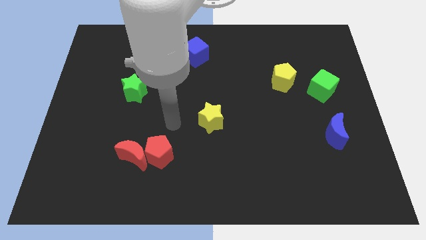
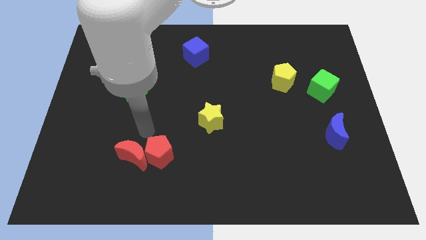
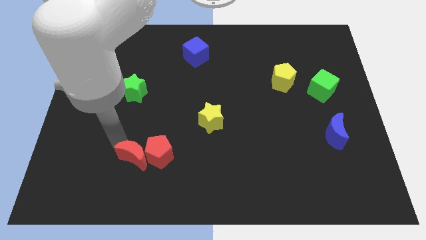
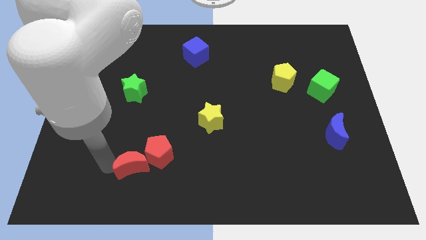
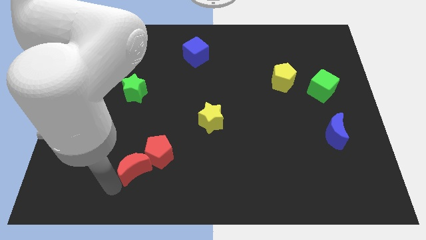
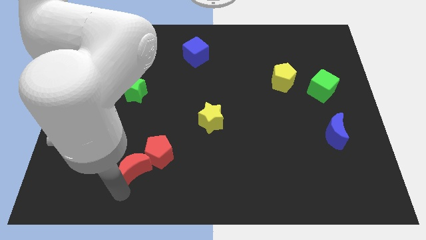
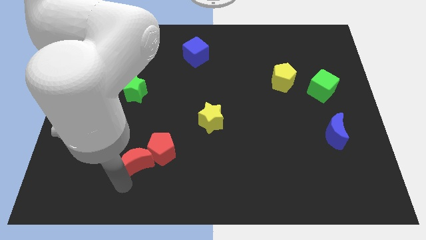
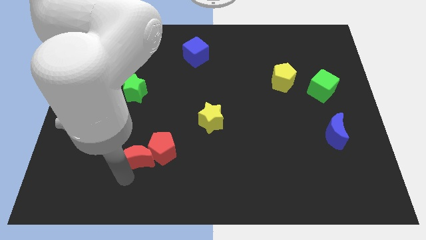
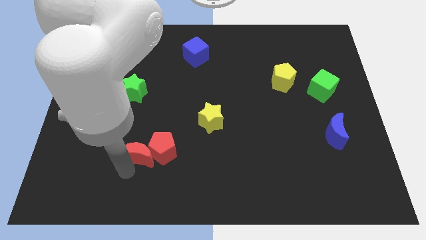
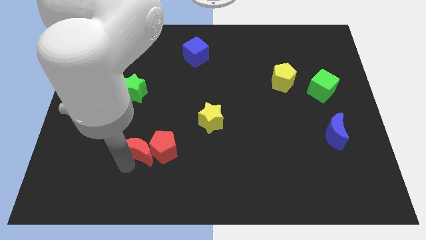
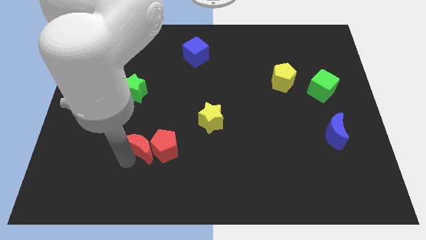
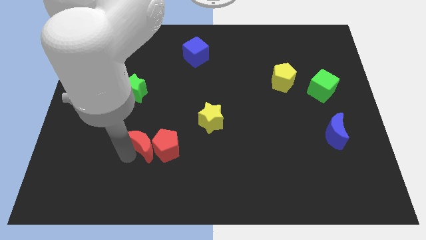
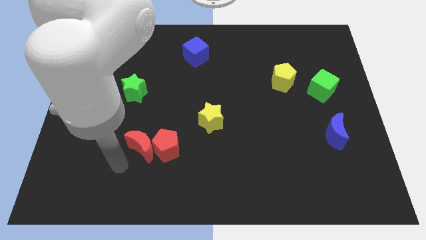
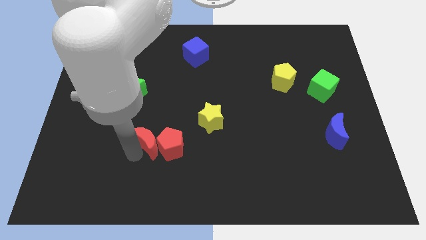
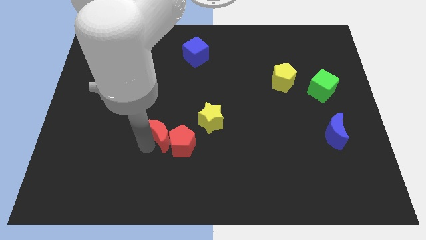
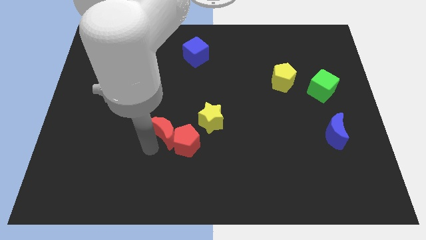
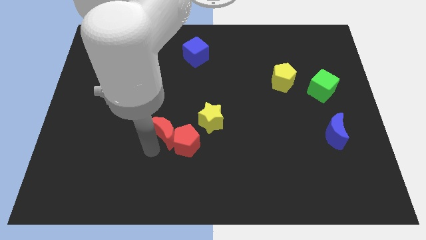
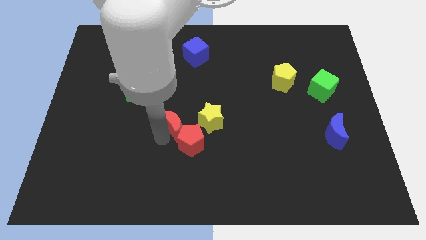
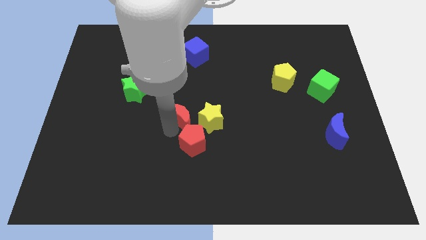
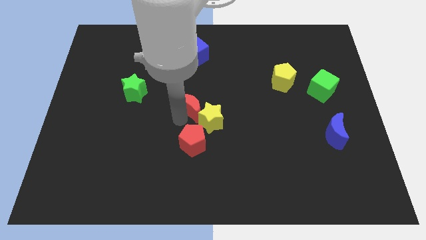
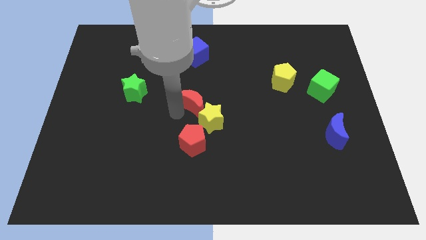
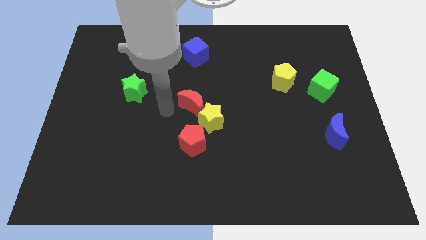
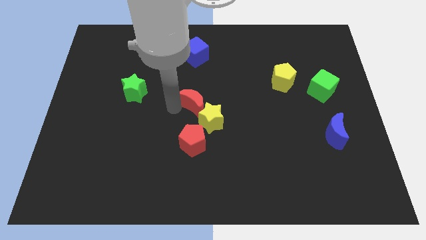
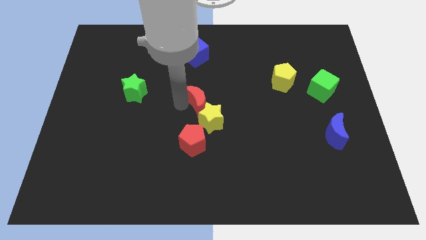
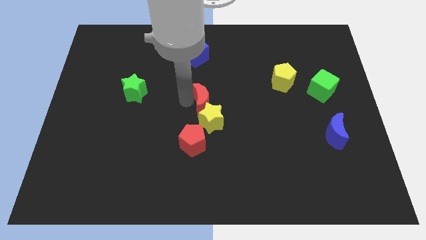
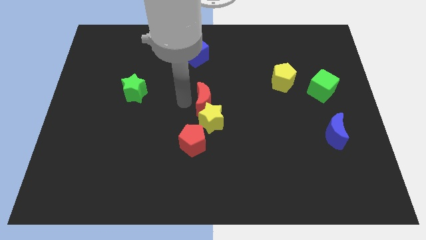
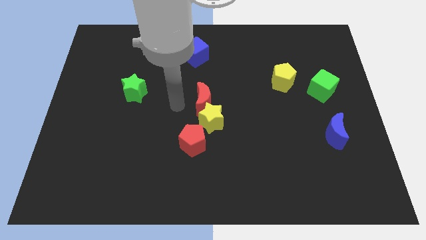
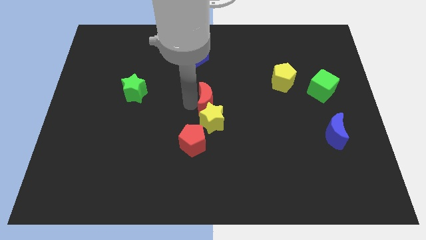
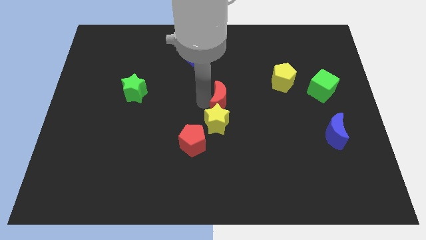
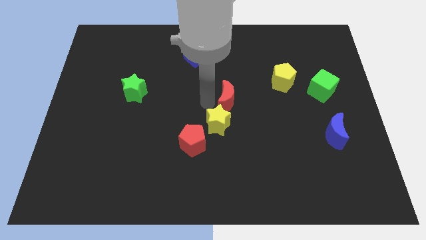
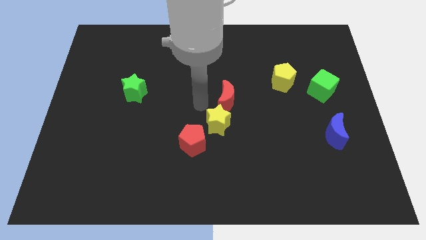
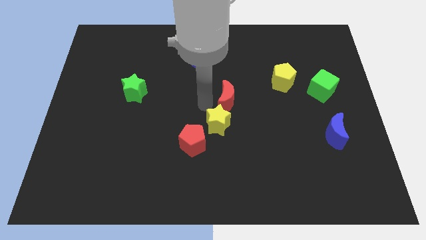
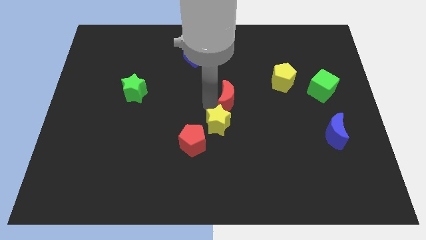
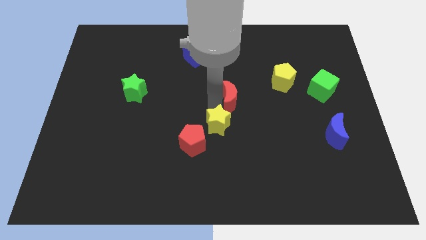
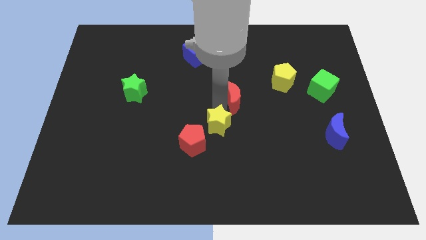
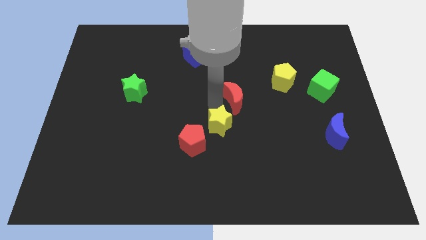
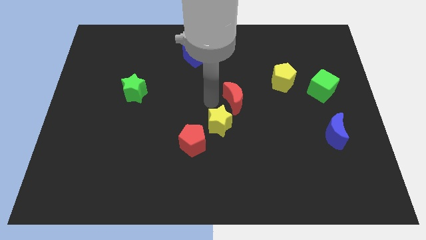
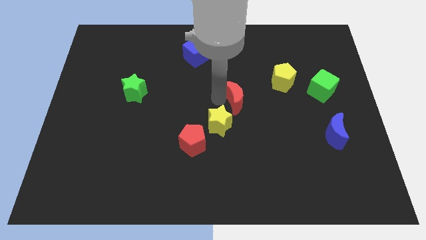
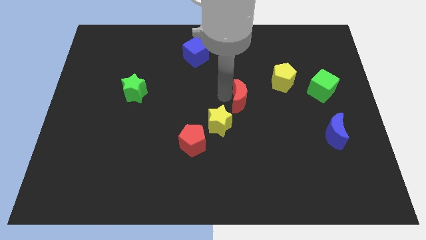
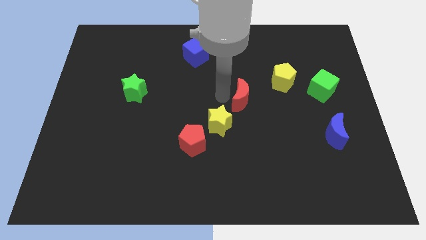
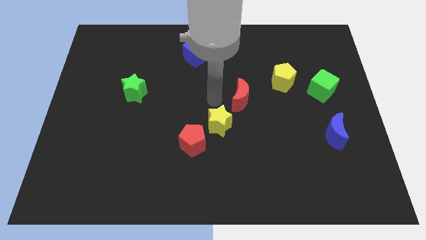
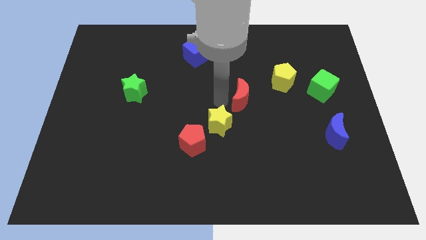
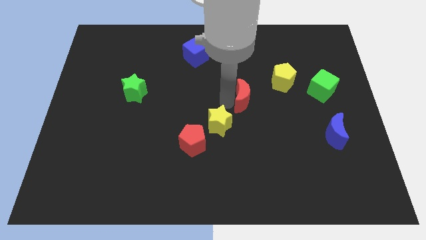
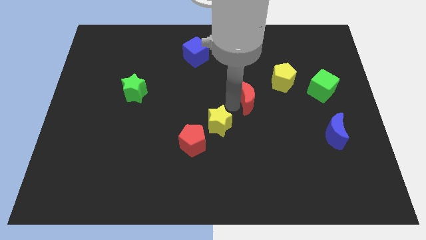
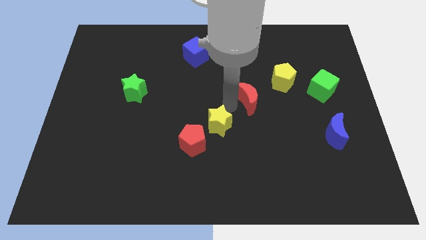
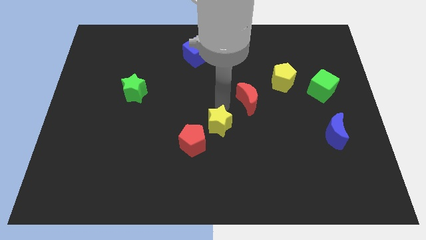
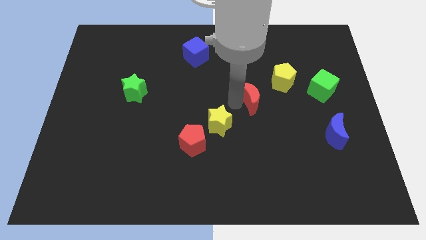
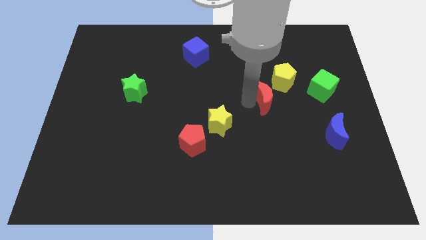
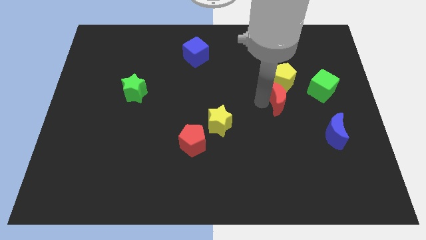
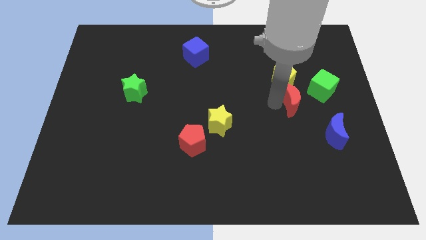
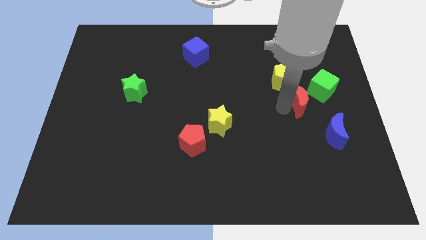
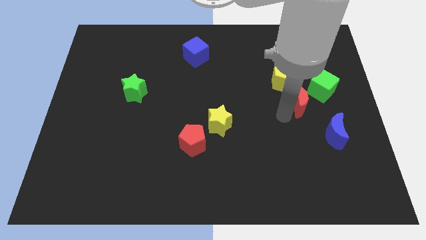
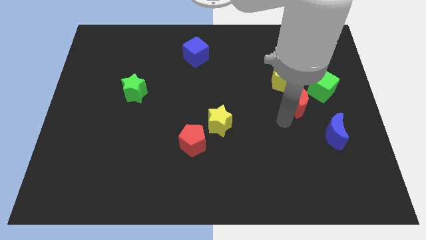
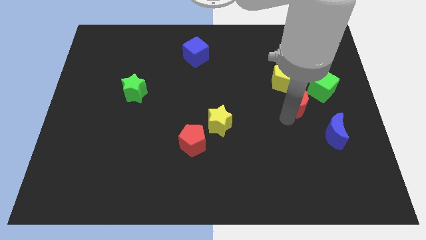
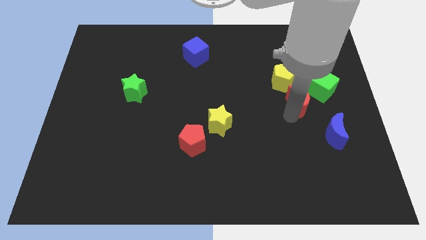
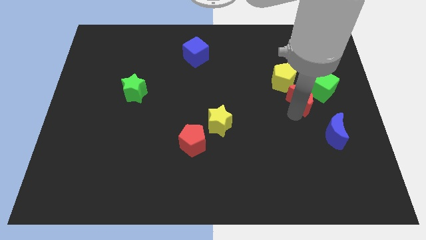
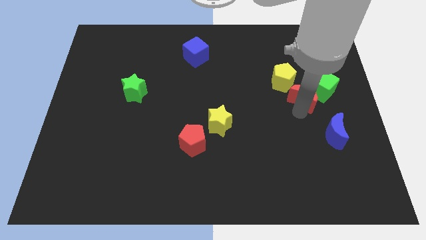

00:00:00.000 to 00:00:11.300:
move the red moon close to the green cube
